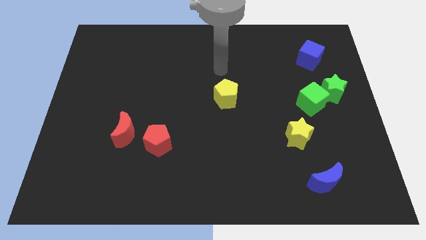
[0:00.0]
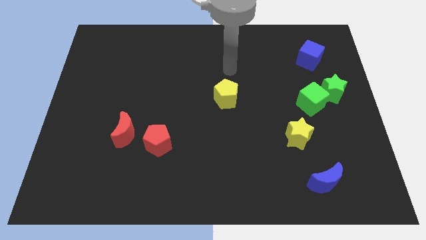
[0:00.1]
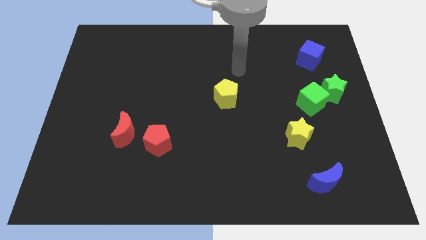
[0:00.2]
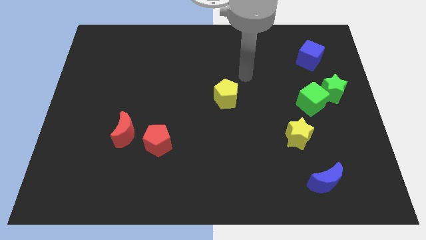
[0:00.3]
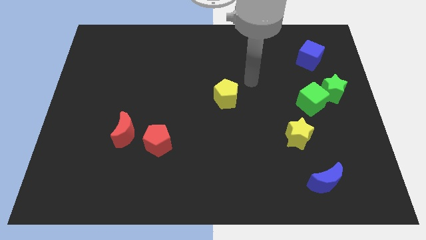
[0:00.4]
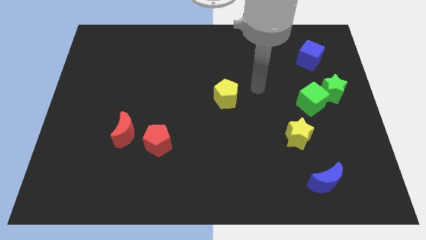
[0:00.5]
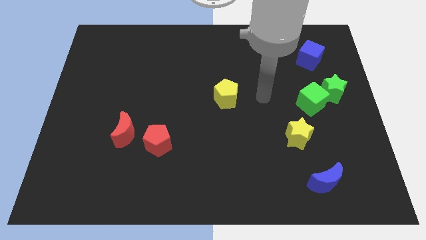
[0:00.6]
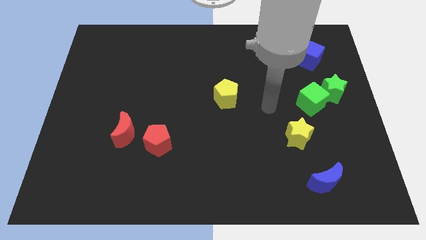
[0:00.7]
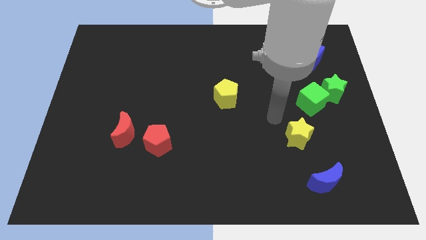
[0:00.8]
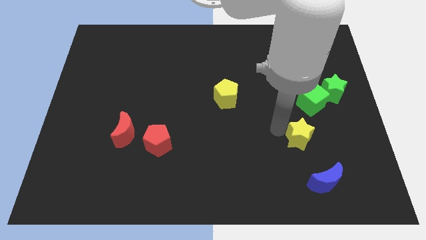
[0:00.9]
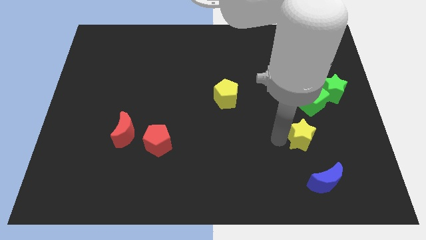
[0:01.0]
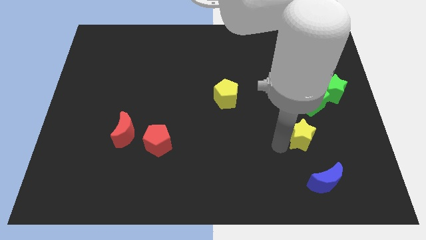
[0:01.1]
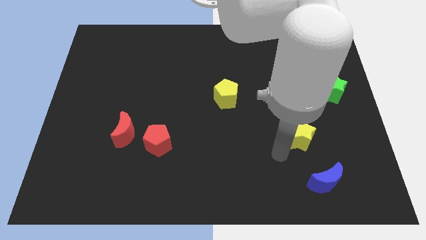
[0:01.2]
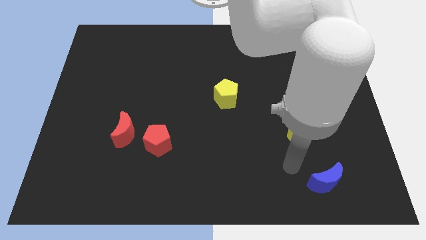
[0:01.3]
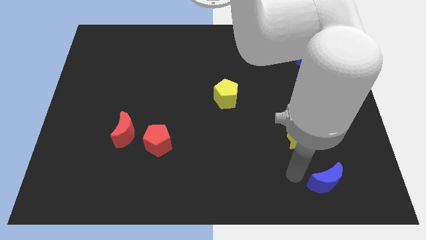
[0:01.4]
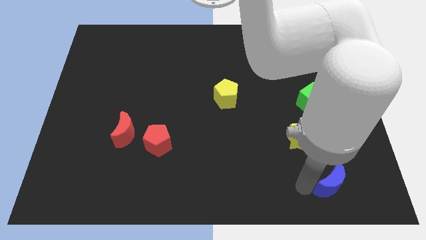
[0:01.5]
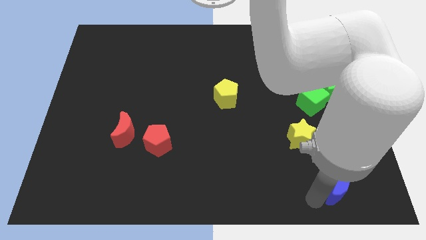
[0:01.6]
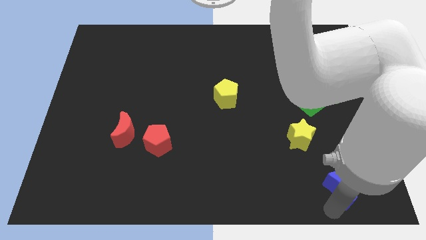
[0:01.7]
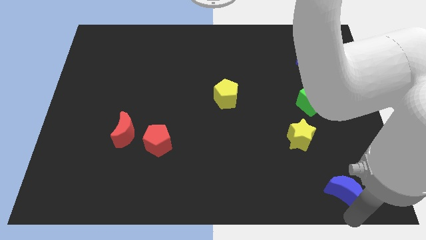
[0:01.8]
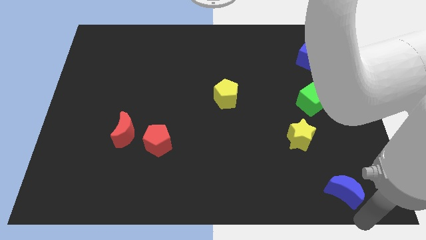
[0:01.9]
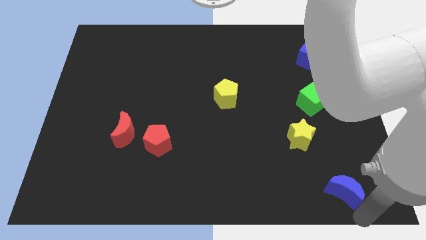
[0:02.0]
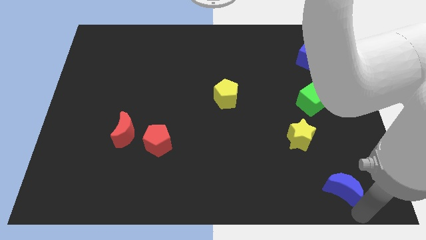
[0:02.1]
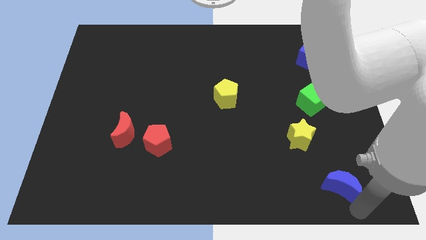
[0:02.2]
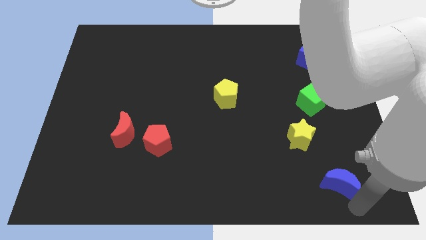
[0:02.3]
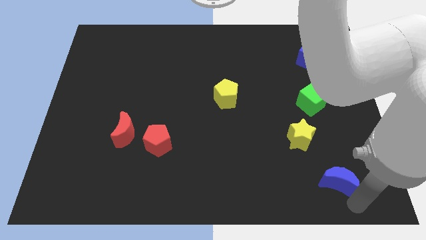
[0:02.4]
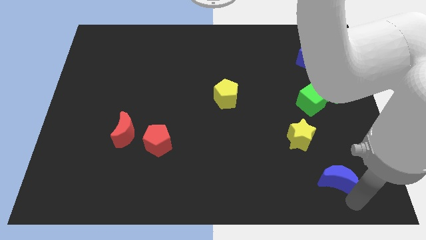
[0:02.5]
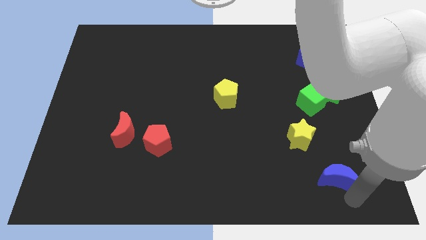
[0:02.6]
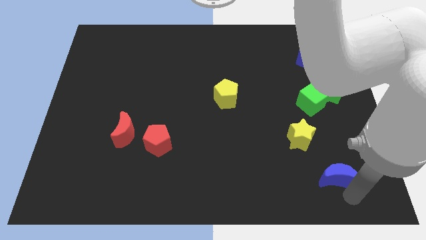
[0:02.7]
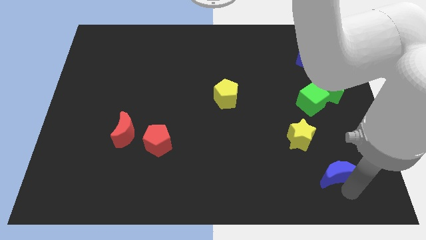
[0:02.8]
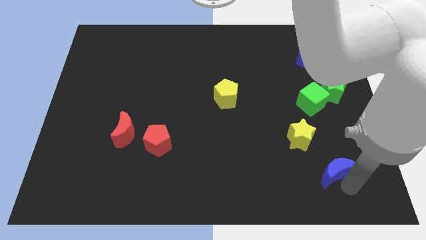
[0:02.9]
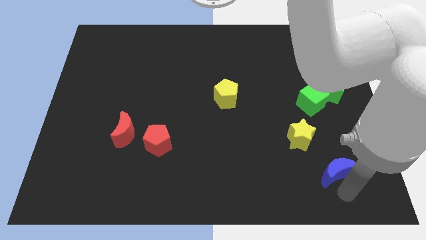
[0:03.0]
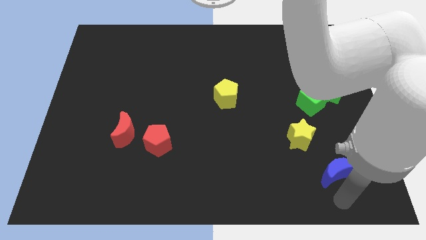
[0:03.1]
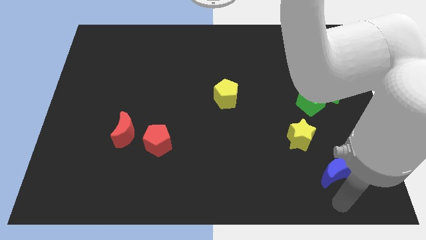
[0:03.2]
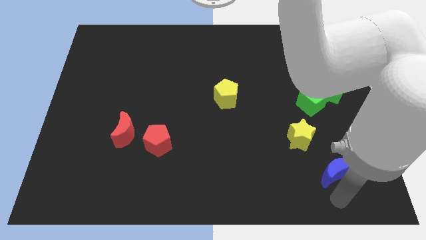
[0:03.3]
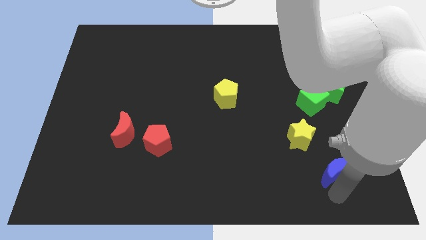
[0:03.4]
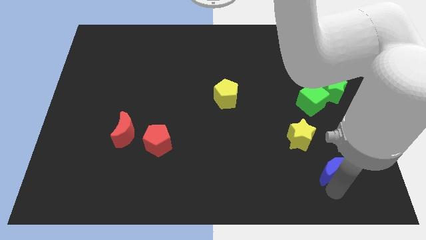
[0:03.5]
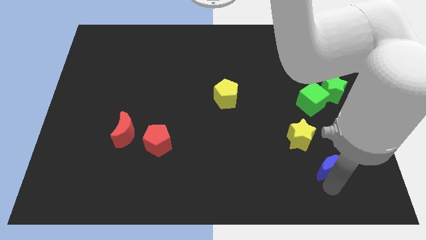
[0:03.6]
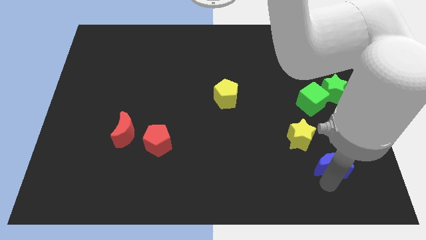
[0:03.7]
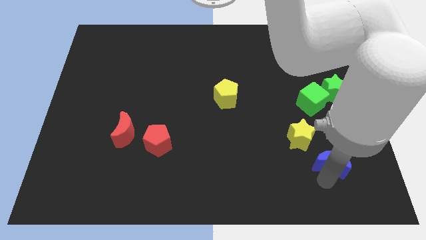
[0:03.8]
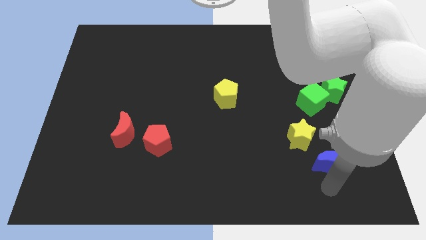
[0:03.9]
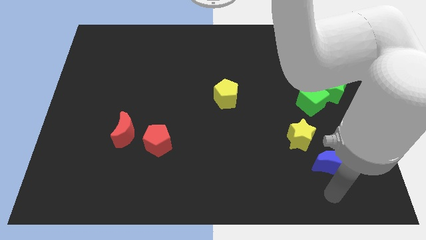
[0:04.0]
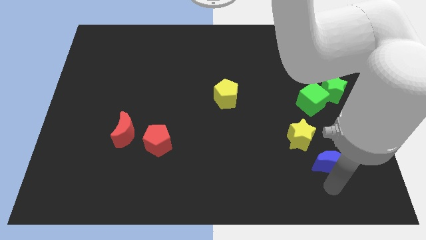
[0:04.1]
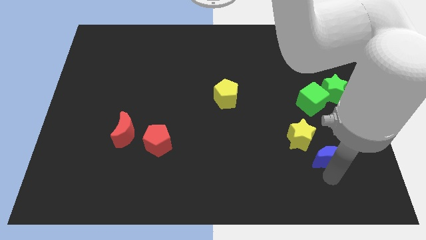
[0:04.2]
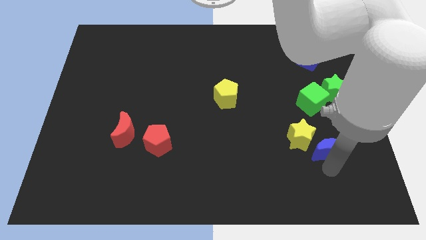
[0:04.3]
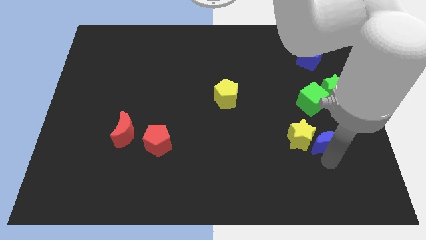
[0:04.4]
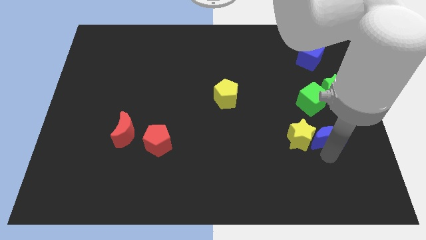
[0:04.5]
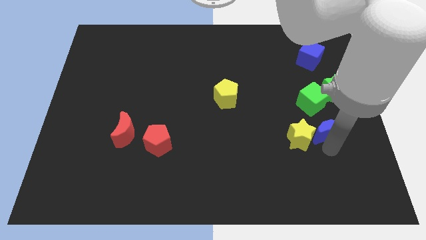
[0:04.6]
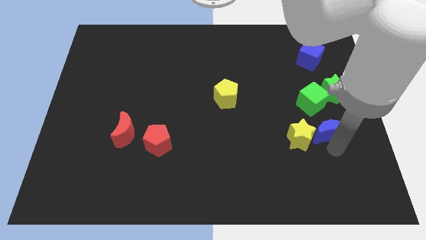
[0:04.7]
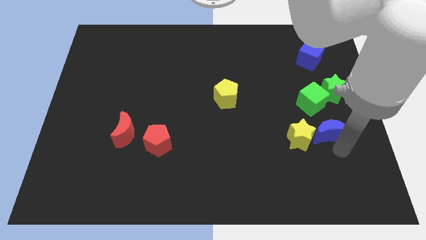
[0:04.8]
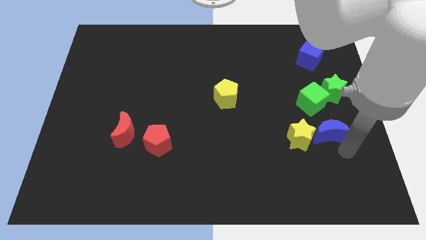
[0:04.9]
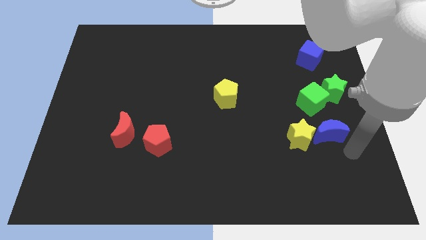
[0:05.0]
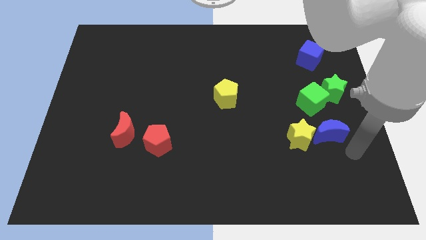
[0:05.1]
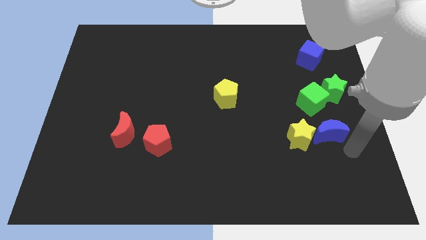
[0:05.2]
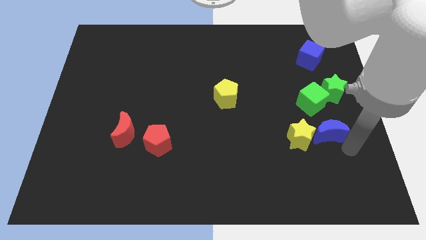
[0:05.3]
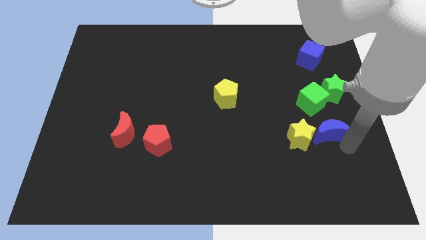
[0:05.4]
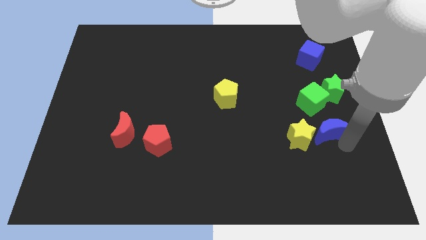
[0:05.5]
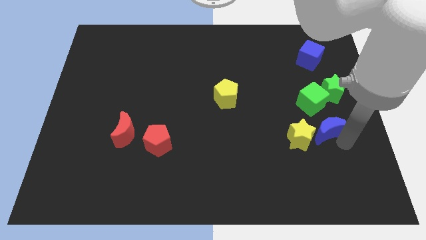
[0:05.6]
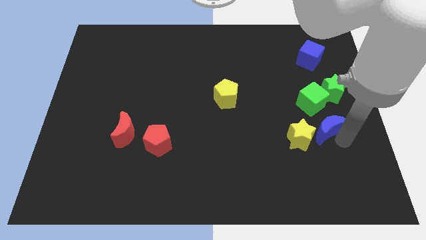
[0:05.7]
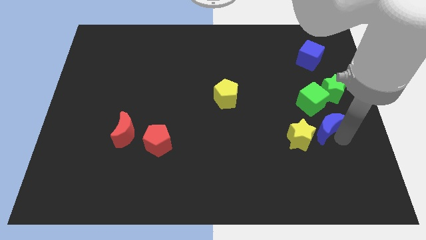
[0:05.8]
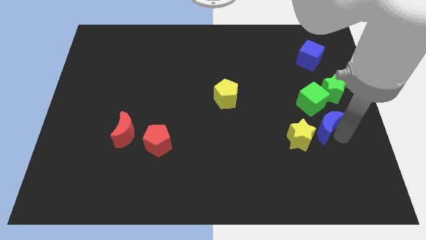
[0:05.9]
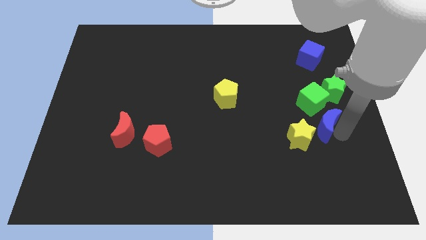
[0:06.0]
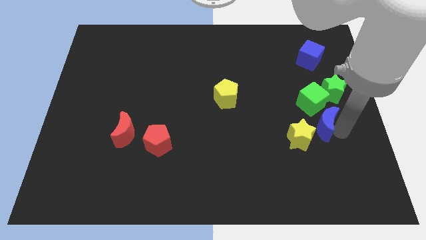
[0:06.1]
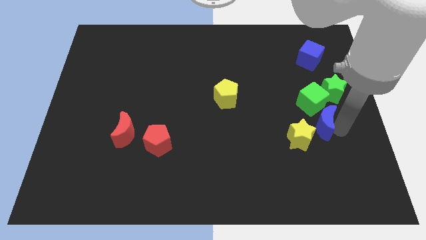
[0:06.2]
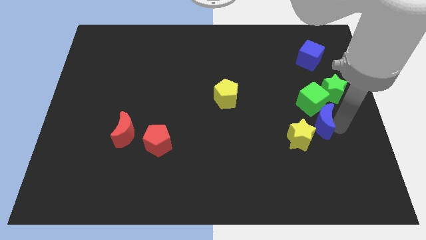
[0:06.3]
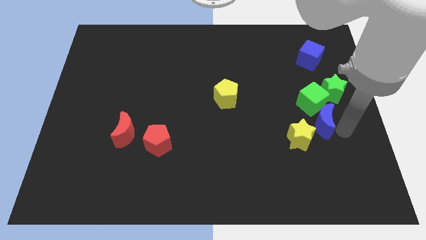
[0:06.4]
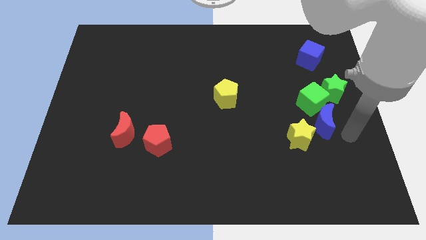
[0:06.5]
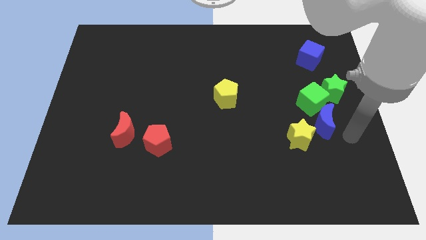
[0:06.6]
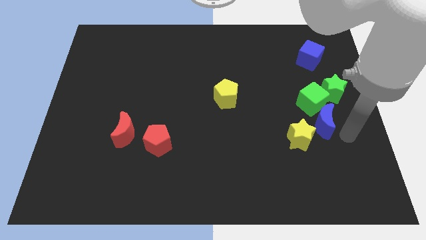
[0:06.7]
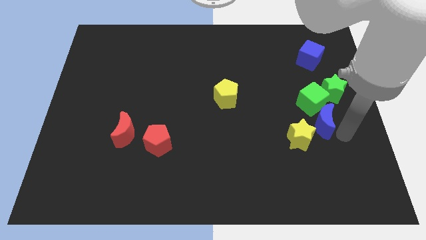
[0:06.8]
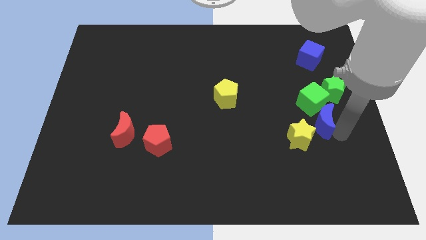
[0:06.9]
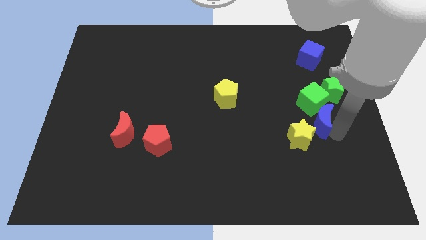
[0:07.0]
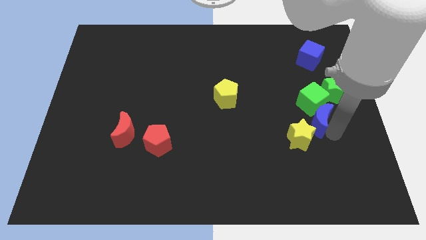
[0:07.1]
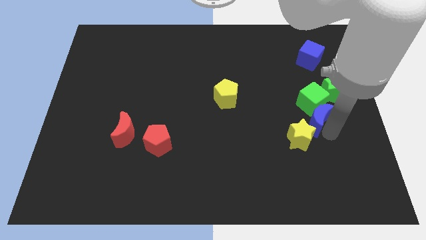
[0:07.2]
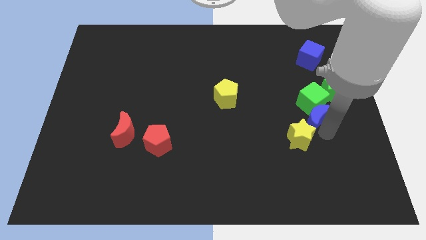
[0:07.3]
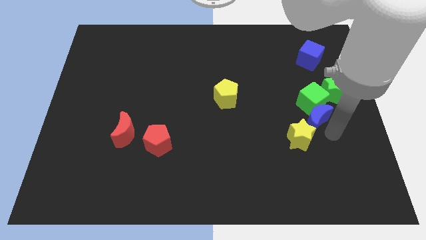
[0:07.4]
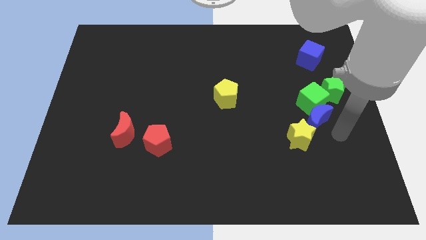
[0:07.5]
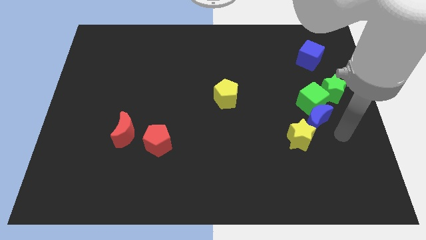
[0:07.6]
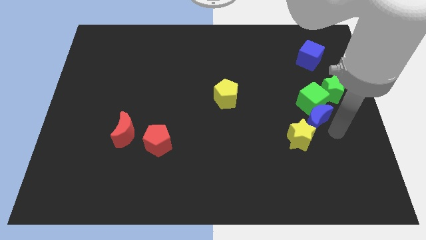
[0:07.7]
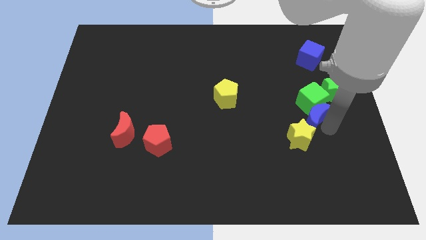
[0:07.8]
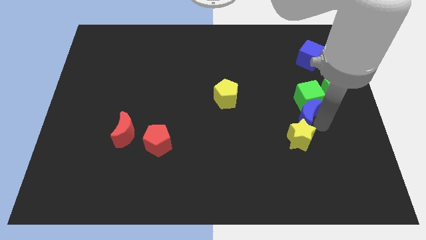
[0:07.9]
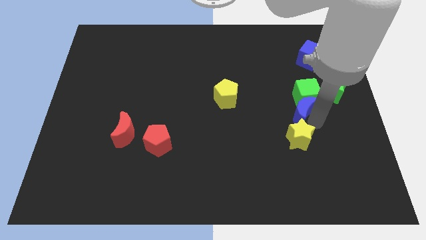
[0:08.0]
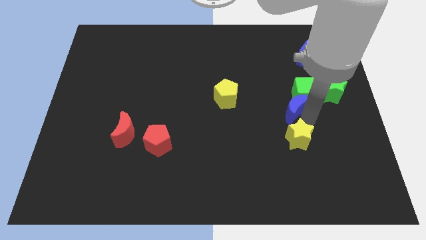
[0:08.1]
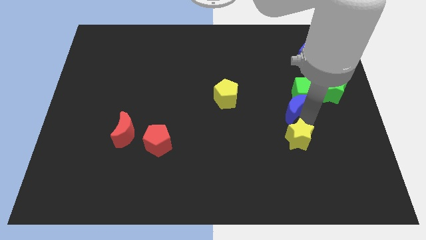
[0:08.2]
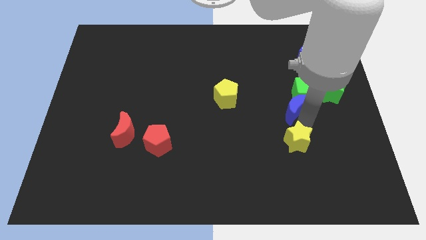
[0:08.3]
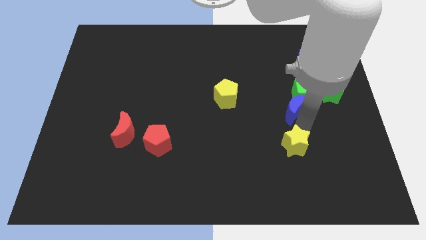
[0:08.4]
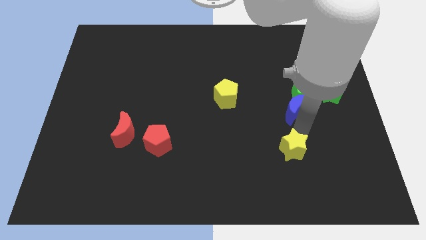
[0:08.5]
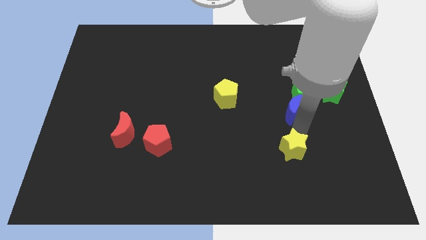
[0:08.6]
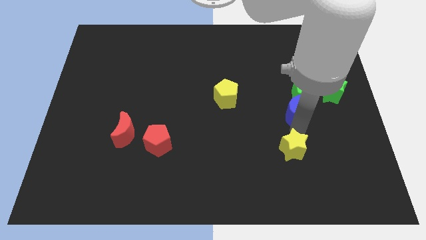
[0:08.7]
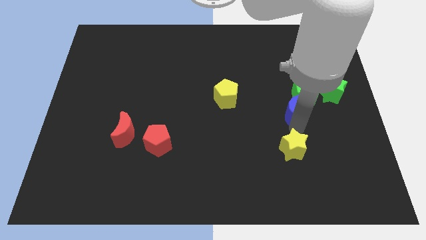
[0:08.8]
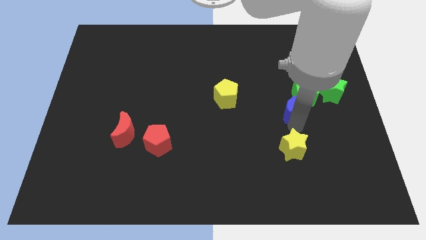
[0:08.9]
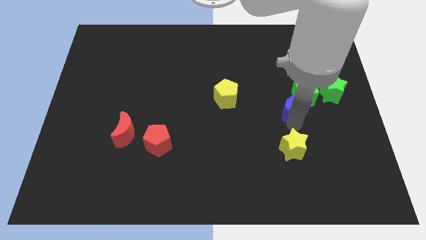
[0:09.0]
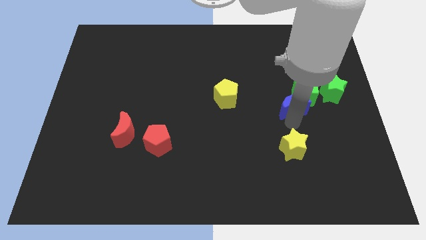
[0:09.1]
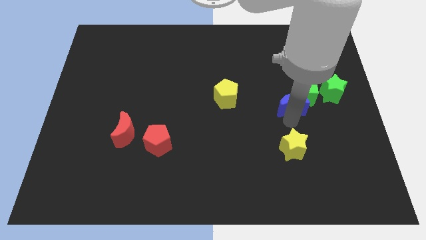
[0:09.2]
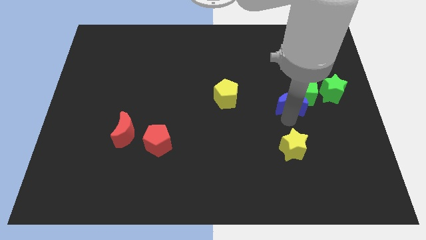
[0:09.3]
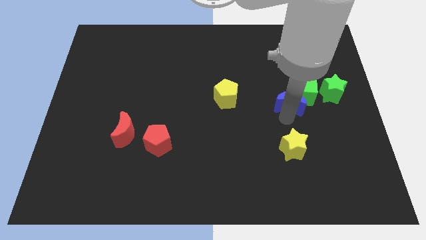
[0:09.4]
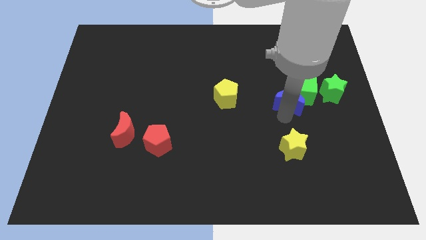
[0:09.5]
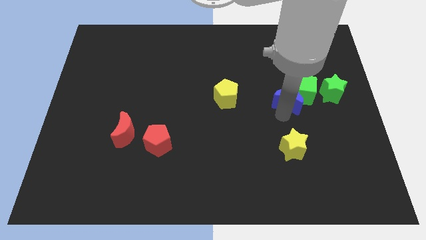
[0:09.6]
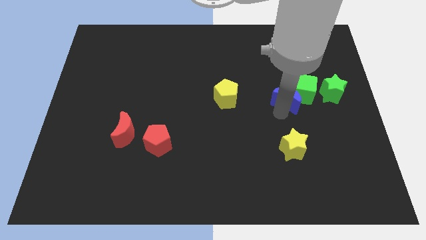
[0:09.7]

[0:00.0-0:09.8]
push the blue moon up
